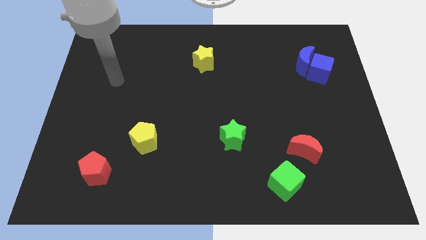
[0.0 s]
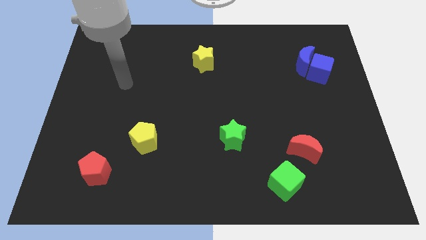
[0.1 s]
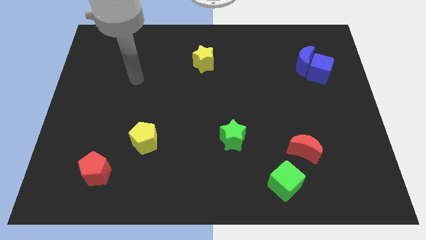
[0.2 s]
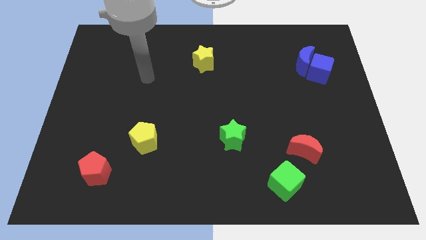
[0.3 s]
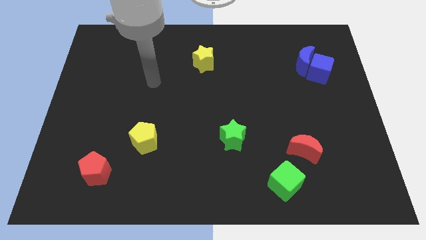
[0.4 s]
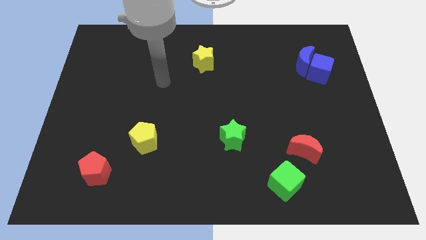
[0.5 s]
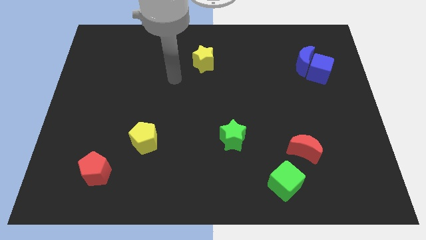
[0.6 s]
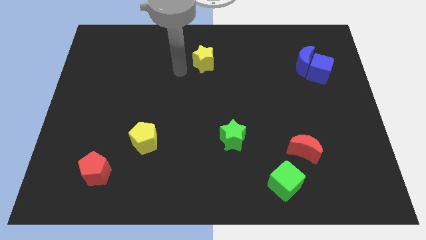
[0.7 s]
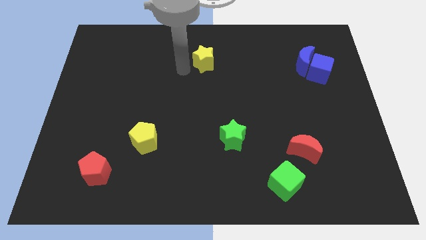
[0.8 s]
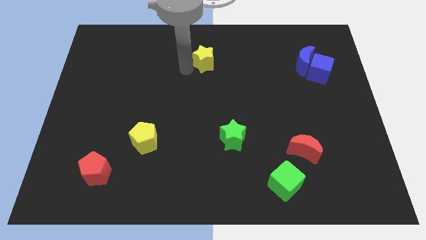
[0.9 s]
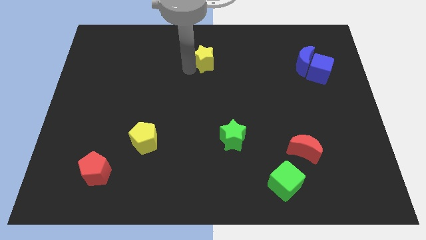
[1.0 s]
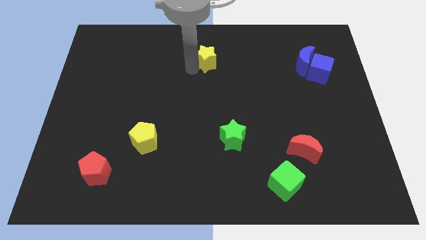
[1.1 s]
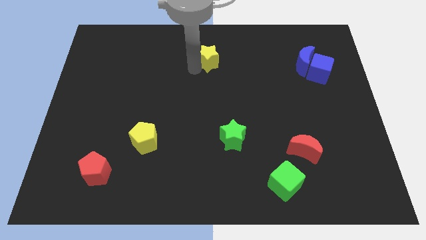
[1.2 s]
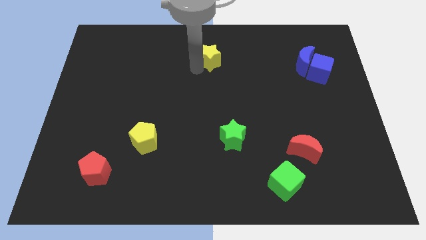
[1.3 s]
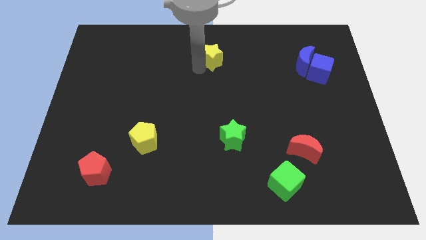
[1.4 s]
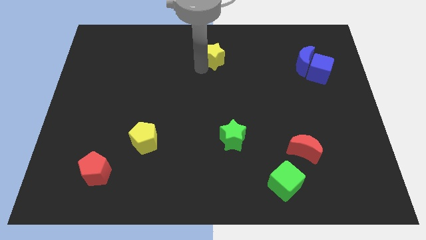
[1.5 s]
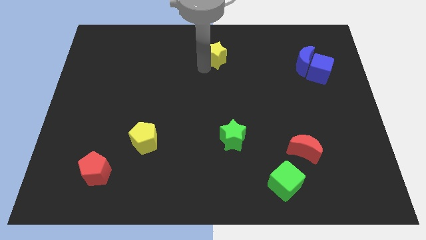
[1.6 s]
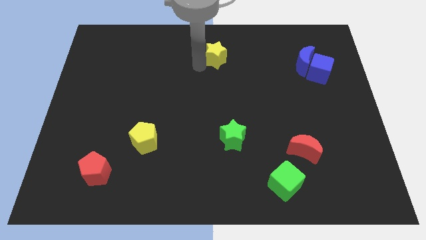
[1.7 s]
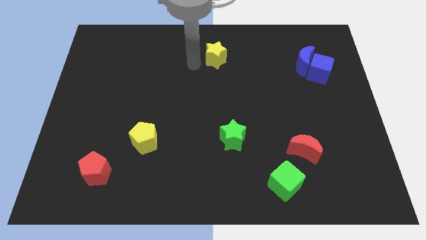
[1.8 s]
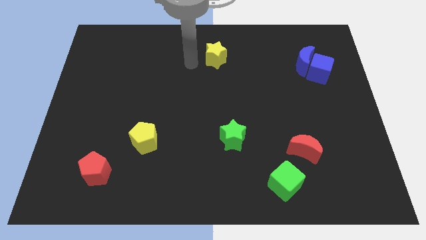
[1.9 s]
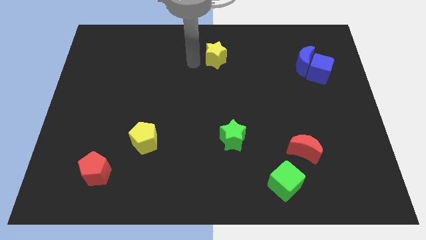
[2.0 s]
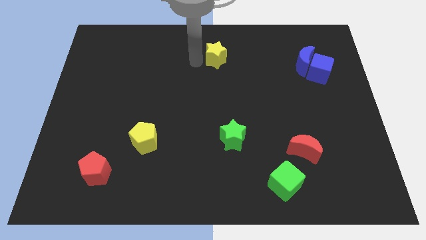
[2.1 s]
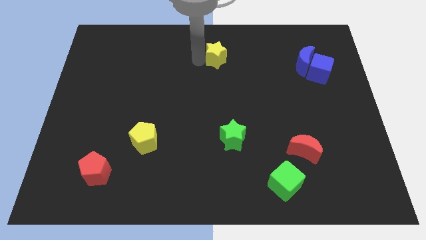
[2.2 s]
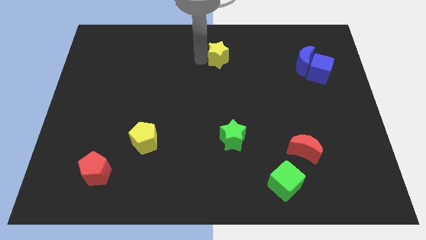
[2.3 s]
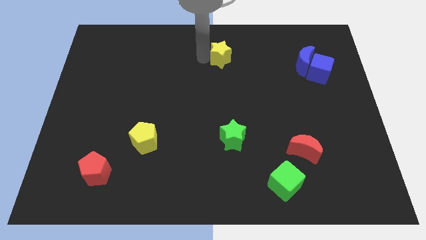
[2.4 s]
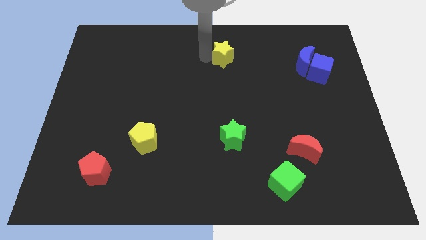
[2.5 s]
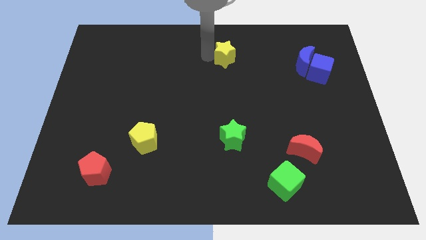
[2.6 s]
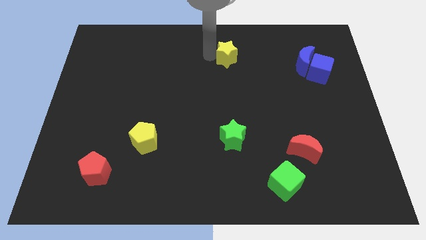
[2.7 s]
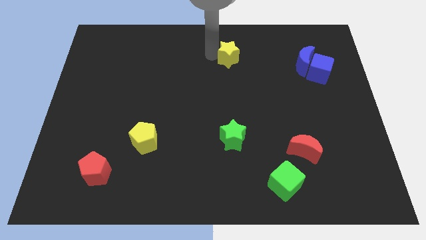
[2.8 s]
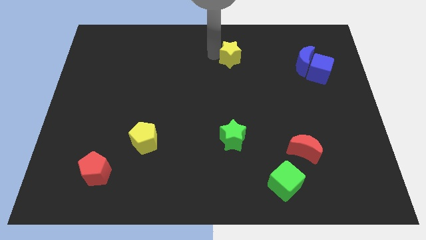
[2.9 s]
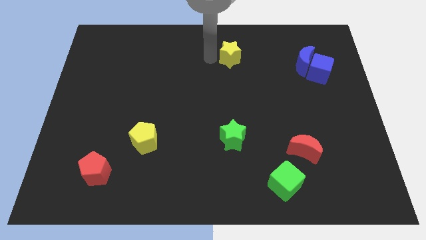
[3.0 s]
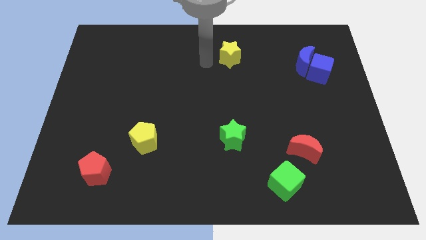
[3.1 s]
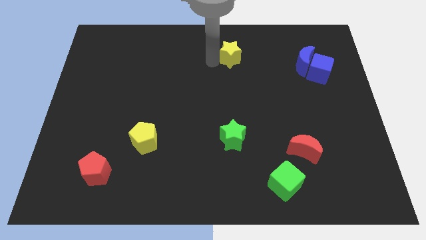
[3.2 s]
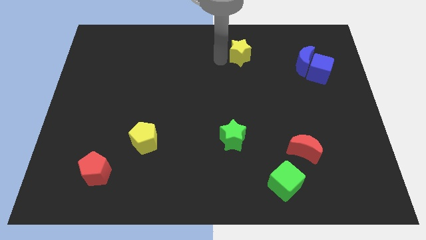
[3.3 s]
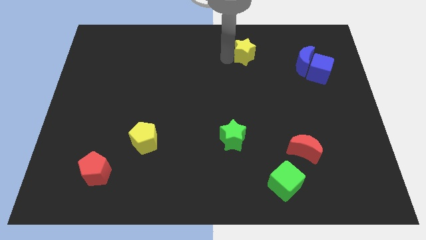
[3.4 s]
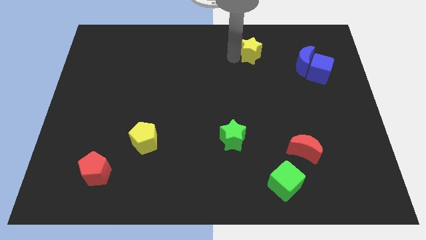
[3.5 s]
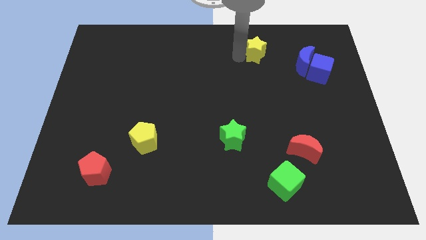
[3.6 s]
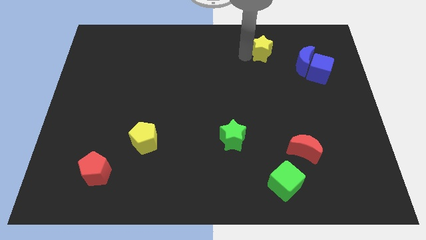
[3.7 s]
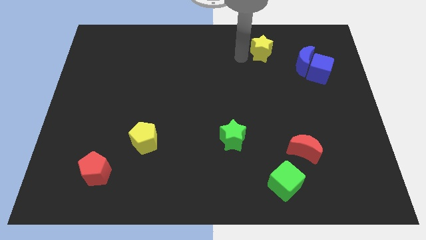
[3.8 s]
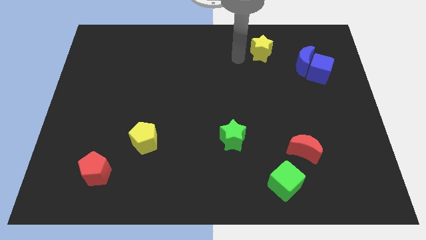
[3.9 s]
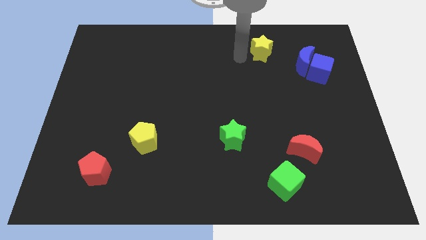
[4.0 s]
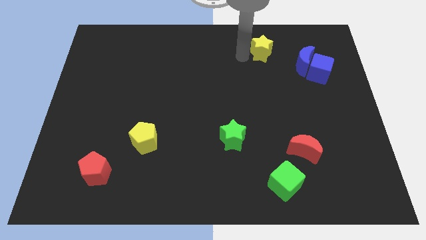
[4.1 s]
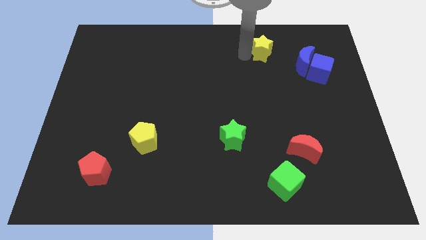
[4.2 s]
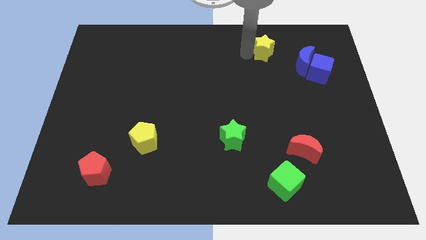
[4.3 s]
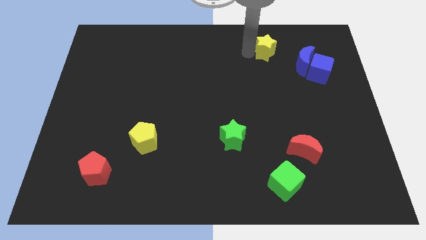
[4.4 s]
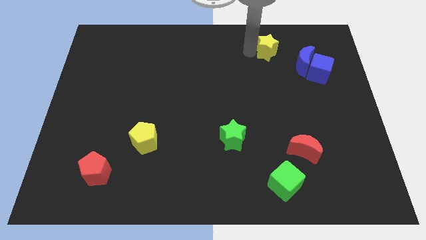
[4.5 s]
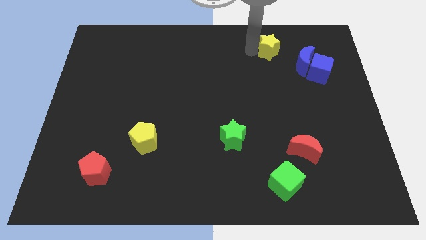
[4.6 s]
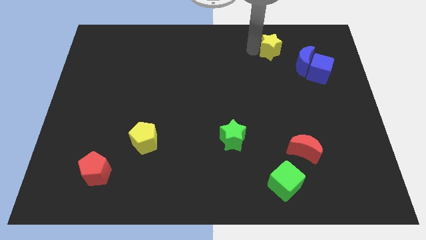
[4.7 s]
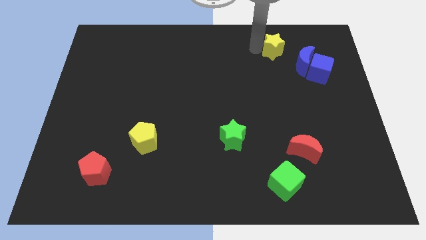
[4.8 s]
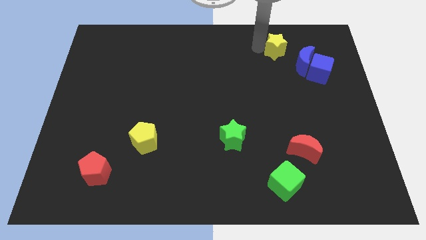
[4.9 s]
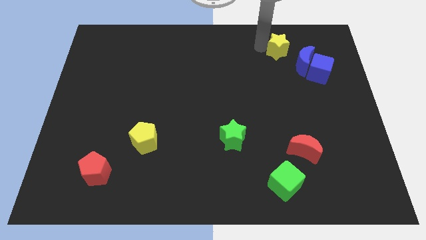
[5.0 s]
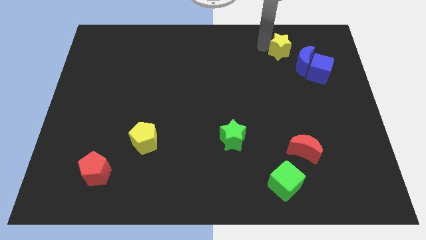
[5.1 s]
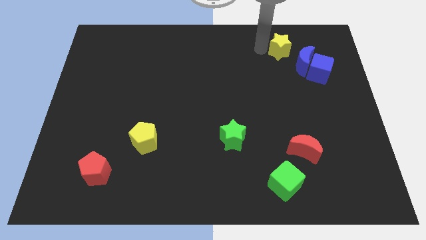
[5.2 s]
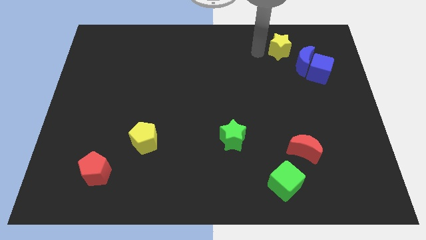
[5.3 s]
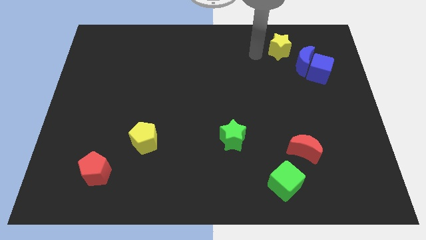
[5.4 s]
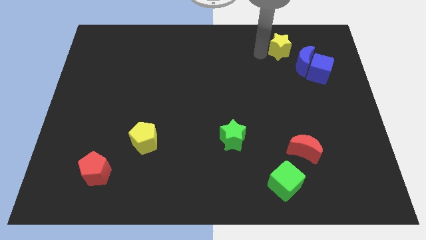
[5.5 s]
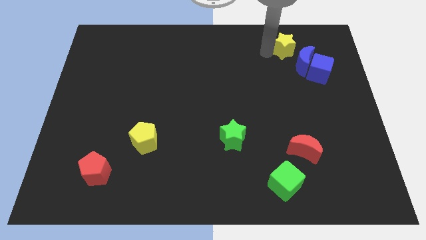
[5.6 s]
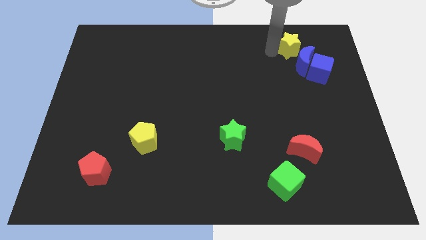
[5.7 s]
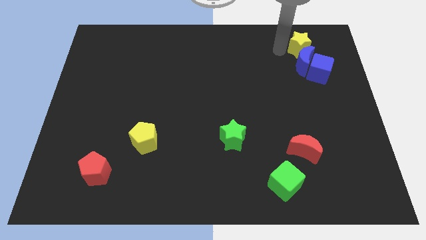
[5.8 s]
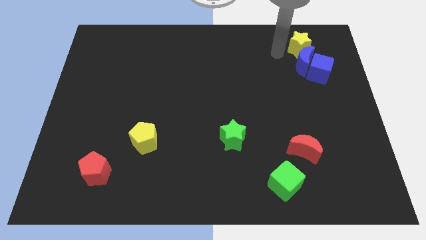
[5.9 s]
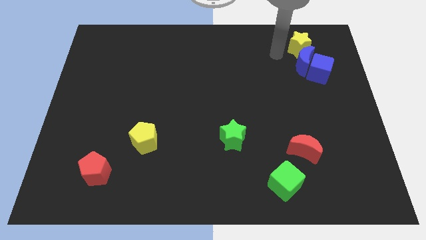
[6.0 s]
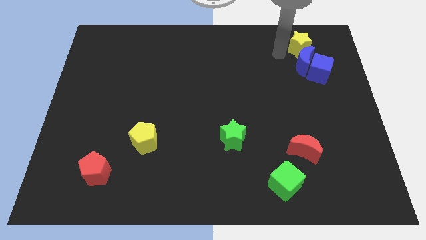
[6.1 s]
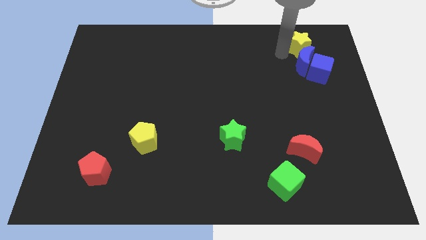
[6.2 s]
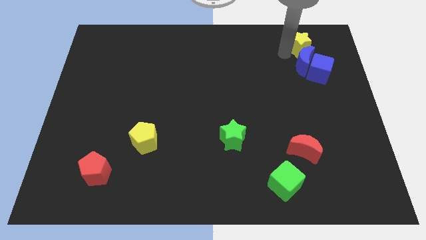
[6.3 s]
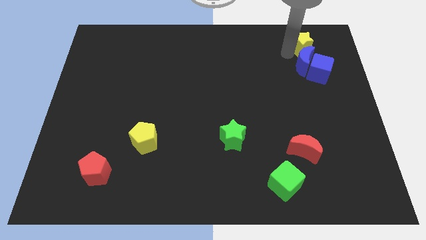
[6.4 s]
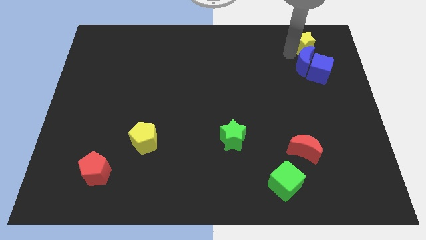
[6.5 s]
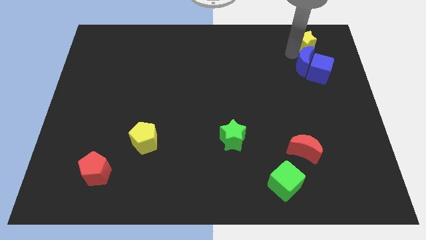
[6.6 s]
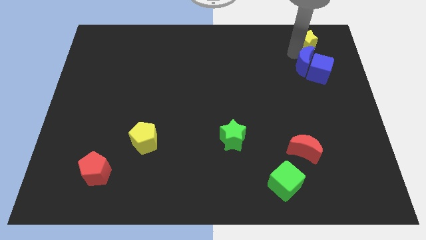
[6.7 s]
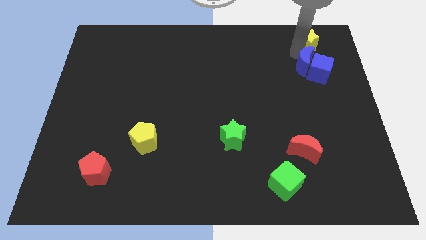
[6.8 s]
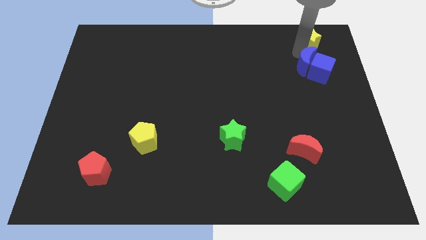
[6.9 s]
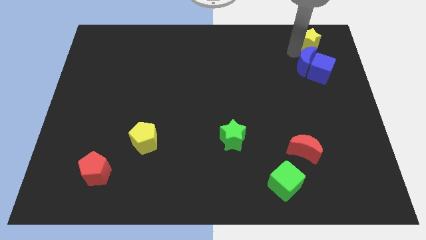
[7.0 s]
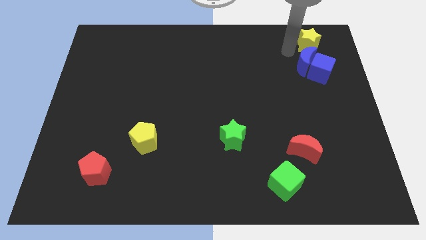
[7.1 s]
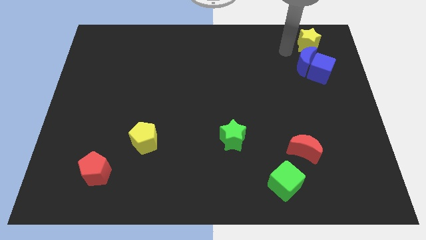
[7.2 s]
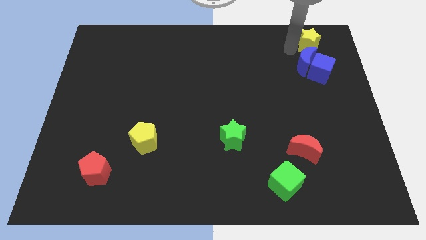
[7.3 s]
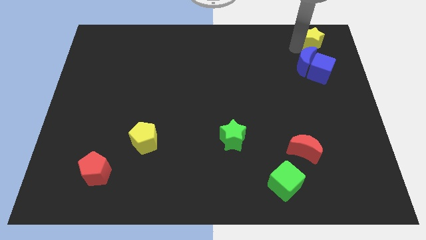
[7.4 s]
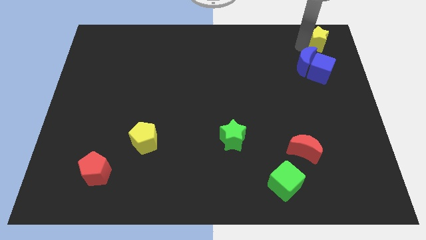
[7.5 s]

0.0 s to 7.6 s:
push the yellow star to the top right
